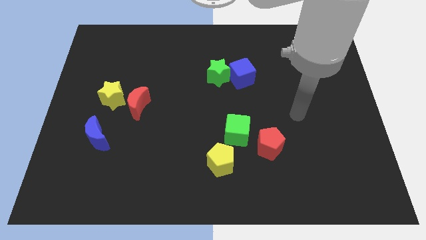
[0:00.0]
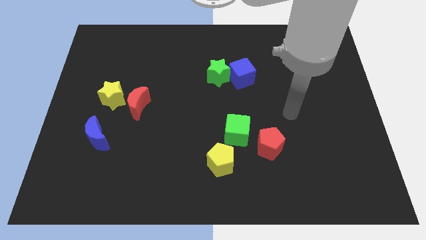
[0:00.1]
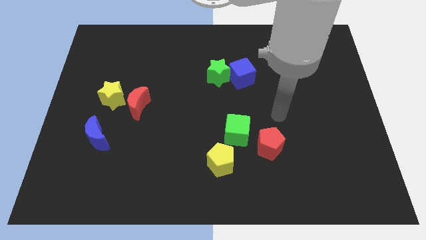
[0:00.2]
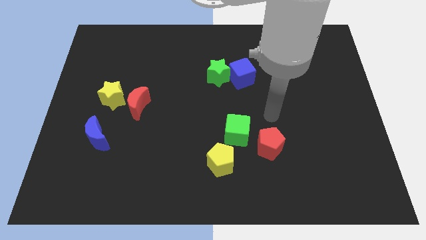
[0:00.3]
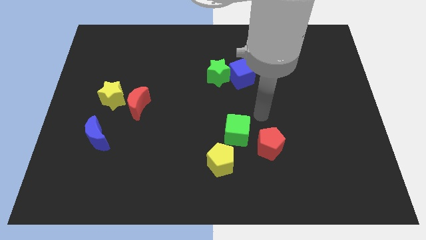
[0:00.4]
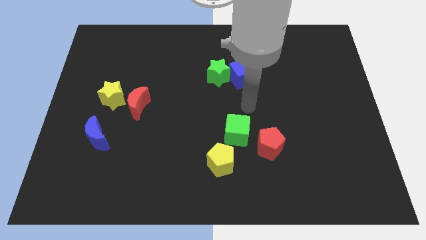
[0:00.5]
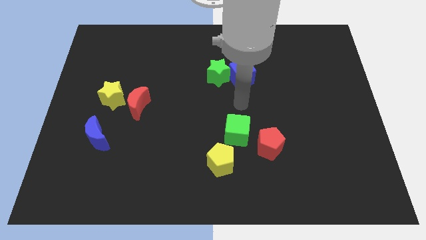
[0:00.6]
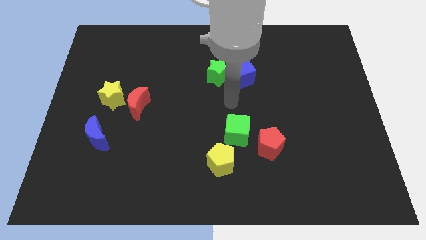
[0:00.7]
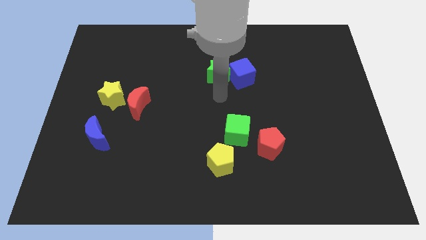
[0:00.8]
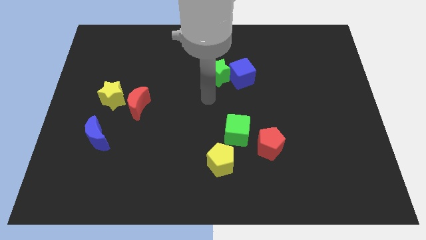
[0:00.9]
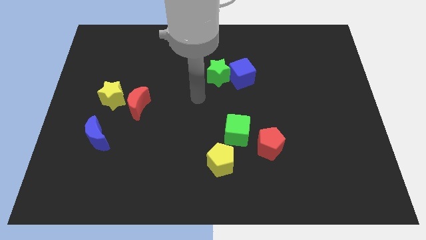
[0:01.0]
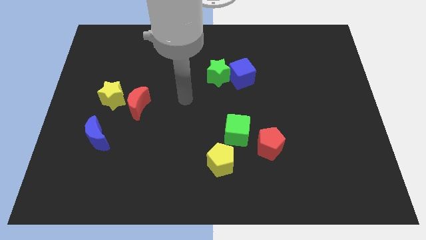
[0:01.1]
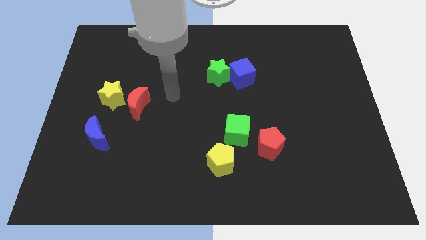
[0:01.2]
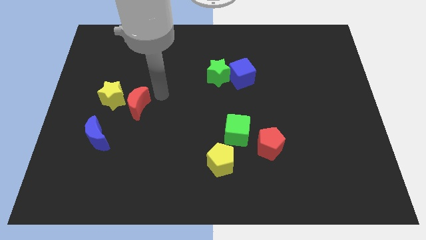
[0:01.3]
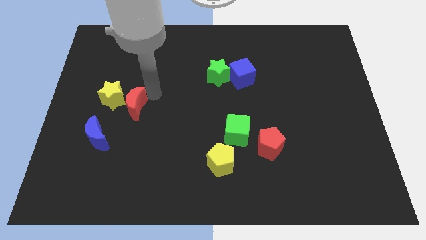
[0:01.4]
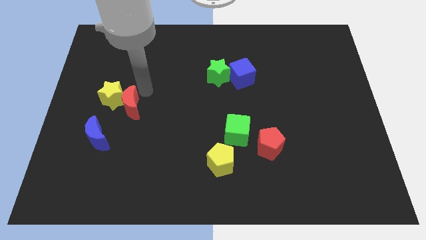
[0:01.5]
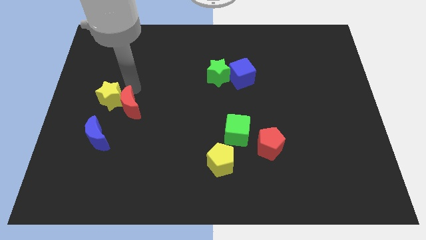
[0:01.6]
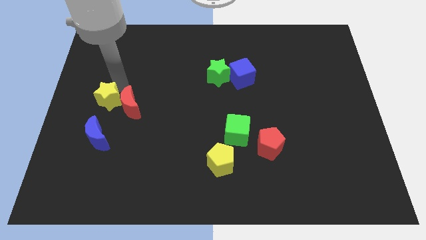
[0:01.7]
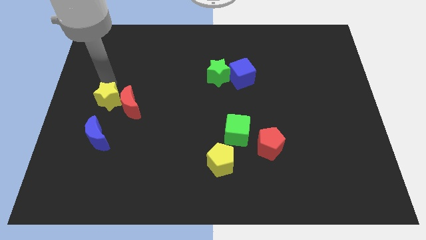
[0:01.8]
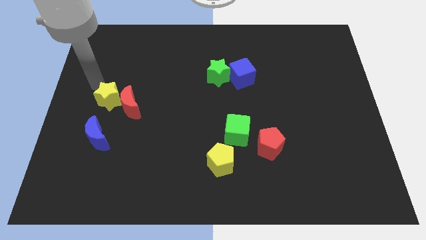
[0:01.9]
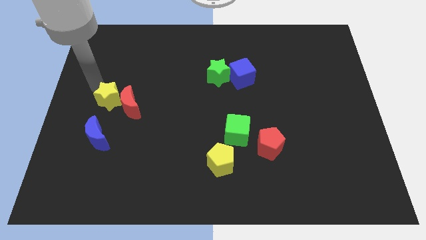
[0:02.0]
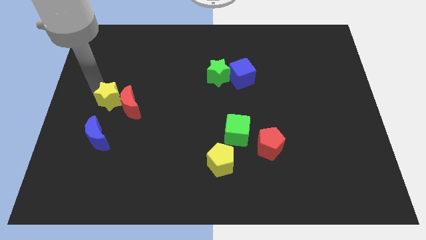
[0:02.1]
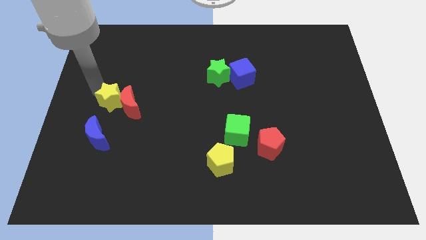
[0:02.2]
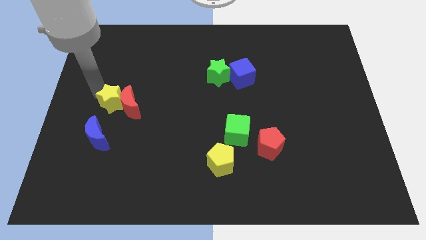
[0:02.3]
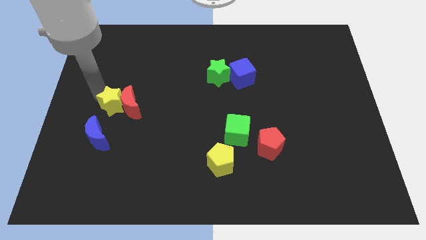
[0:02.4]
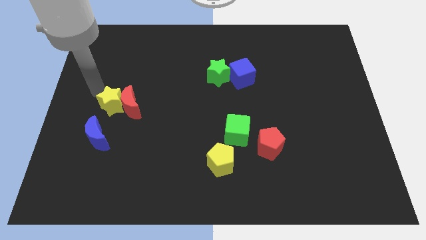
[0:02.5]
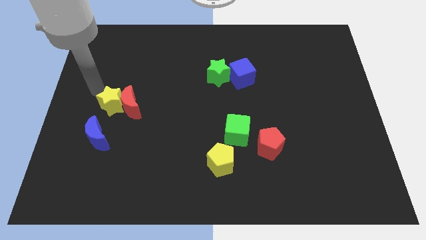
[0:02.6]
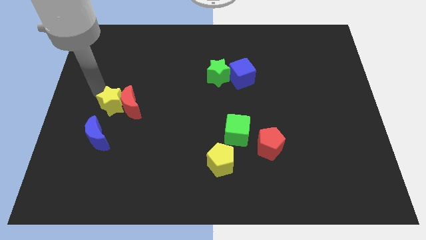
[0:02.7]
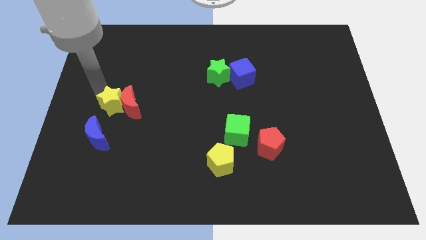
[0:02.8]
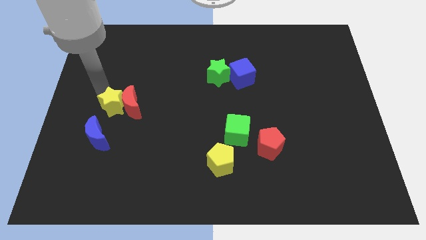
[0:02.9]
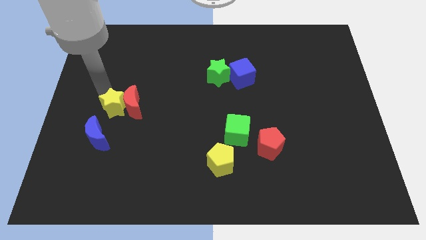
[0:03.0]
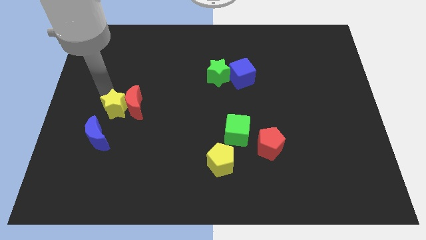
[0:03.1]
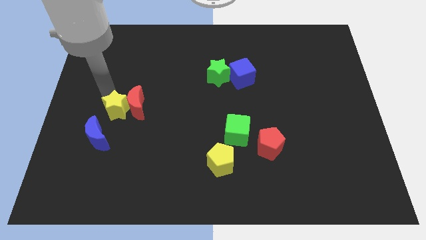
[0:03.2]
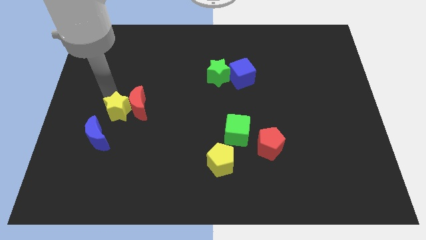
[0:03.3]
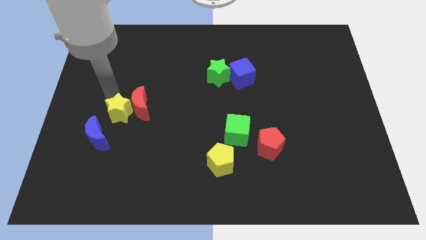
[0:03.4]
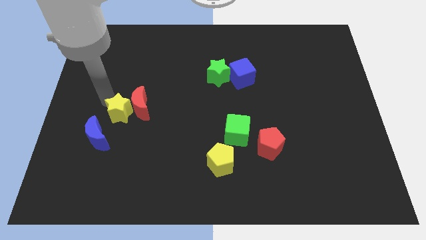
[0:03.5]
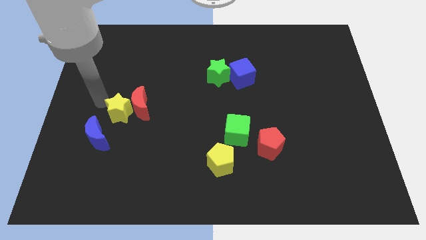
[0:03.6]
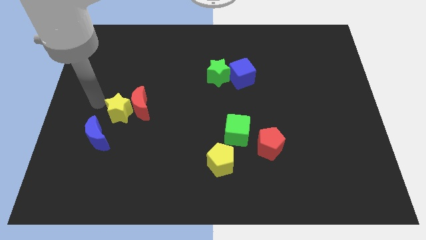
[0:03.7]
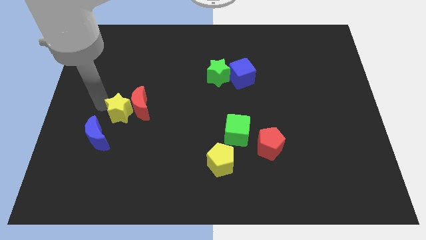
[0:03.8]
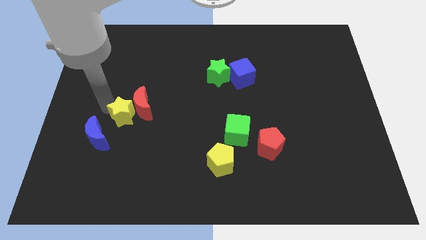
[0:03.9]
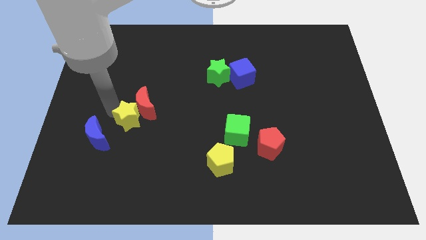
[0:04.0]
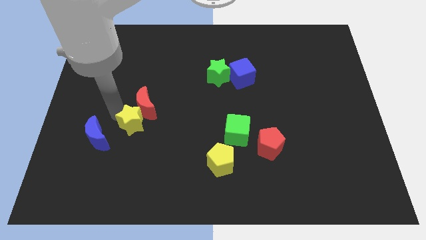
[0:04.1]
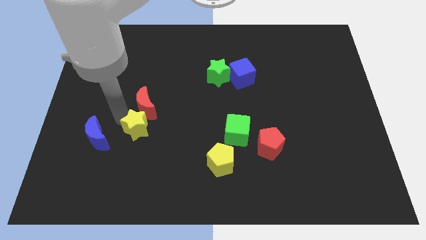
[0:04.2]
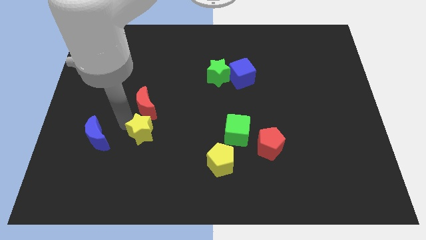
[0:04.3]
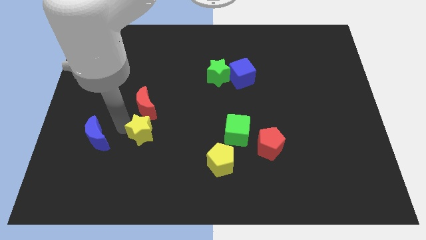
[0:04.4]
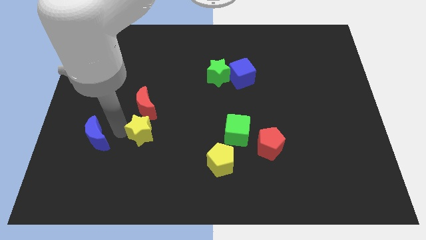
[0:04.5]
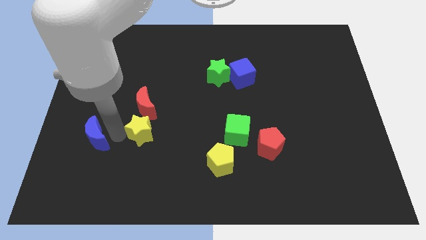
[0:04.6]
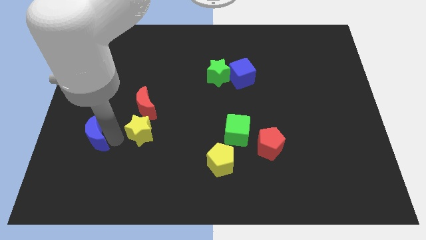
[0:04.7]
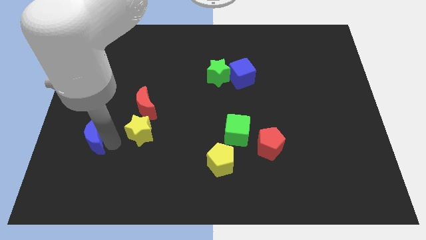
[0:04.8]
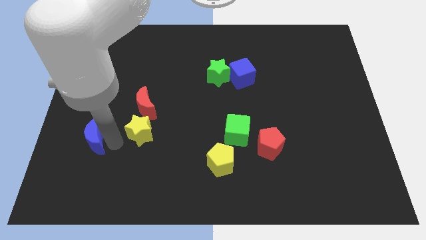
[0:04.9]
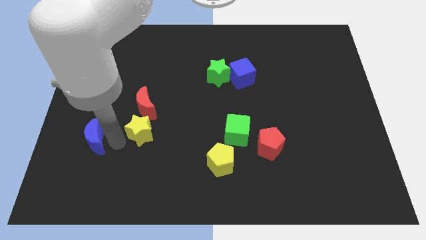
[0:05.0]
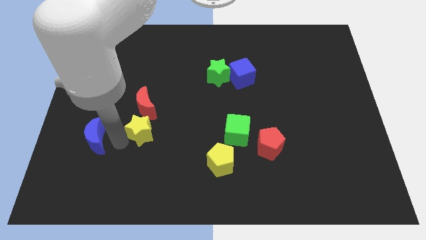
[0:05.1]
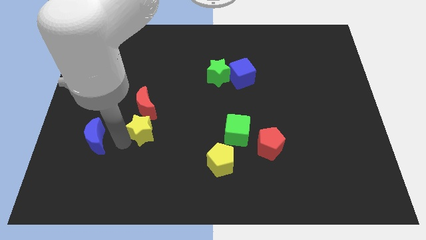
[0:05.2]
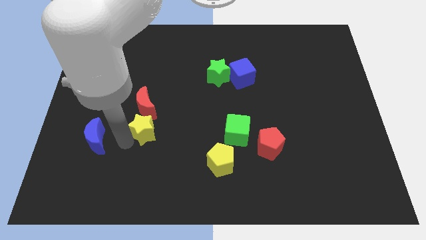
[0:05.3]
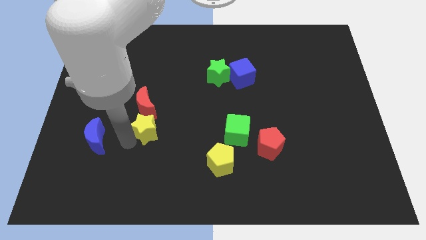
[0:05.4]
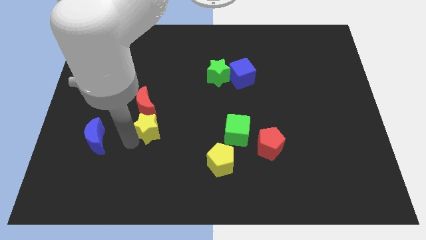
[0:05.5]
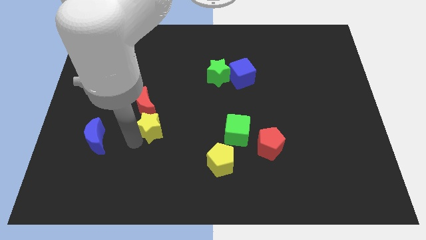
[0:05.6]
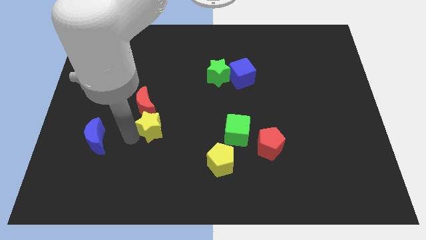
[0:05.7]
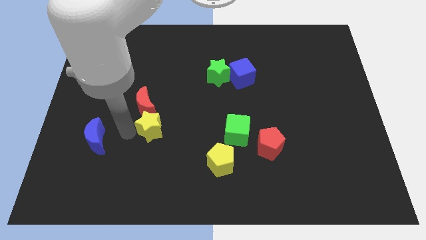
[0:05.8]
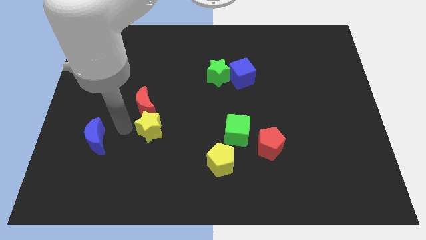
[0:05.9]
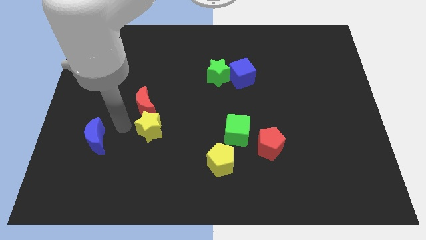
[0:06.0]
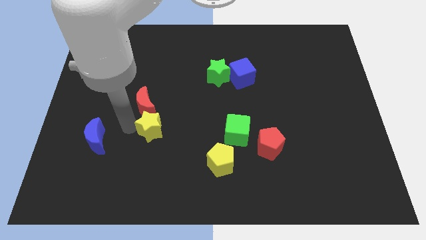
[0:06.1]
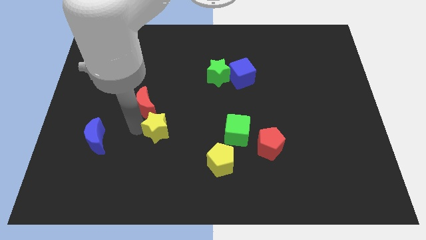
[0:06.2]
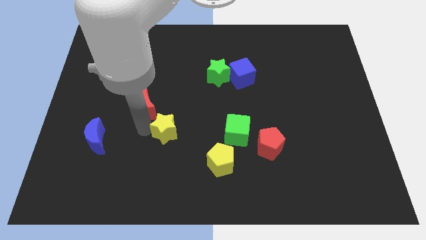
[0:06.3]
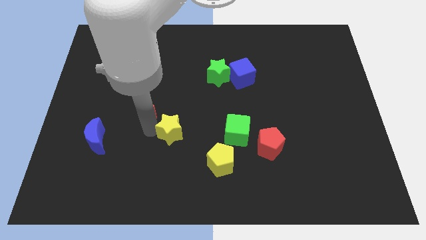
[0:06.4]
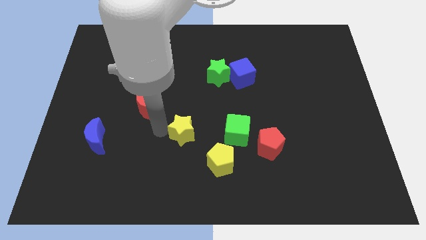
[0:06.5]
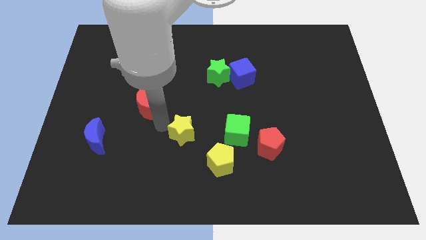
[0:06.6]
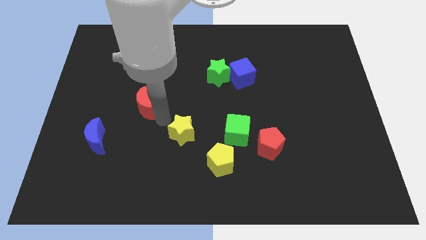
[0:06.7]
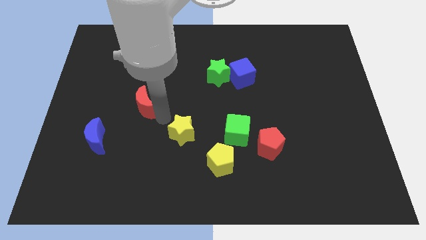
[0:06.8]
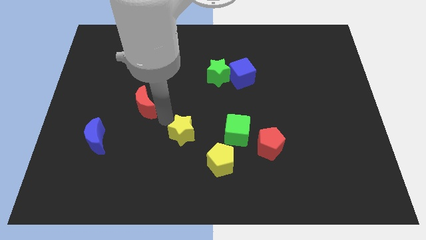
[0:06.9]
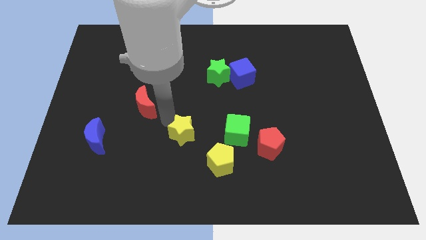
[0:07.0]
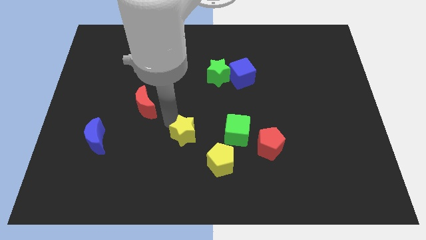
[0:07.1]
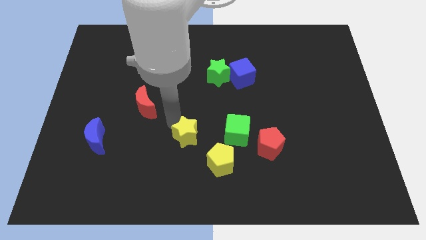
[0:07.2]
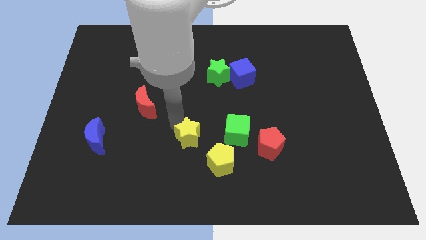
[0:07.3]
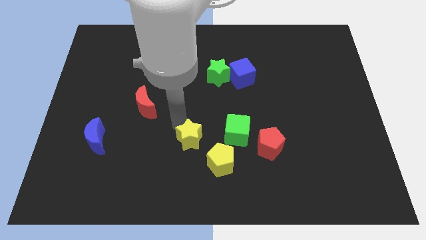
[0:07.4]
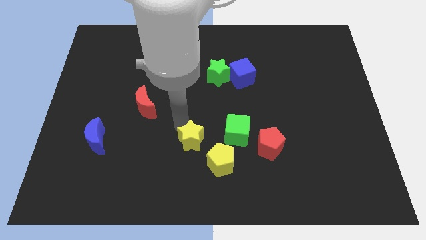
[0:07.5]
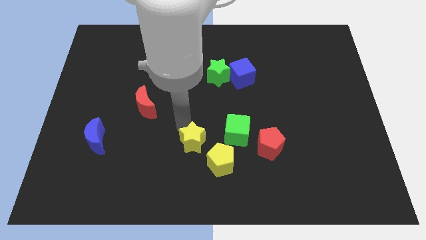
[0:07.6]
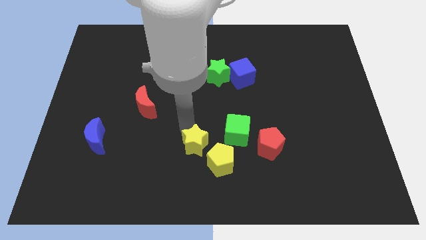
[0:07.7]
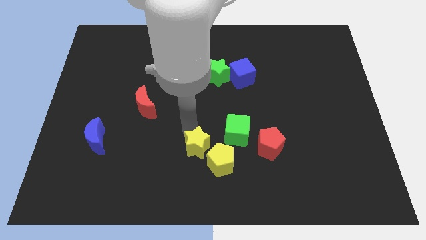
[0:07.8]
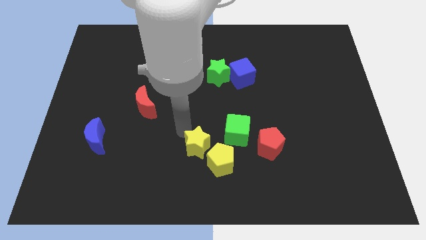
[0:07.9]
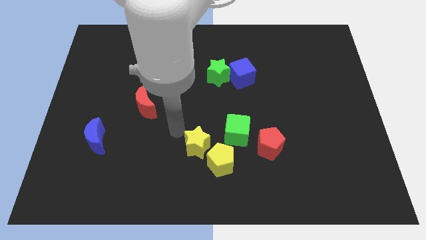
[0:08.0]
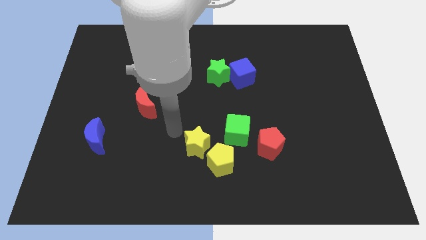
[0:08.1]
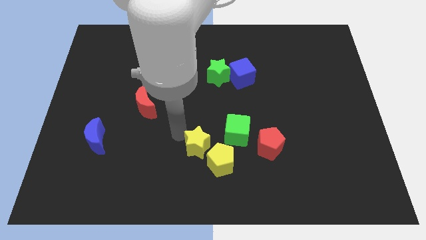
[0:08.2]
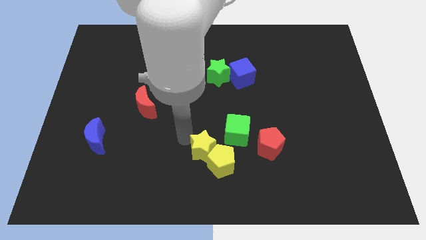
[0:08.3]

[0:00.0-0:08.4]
move the yellow star next to the yellow pentagon
